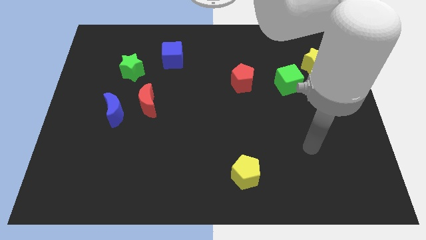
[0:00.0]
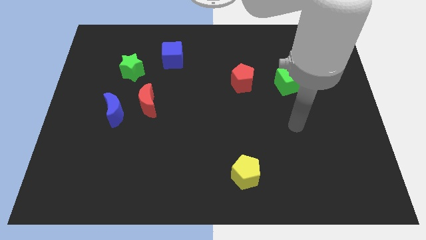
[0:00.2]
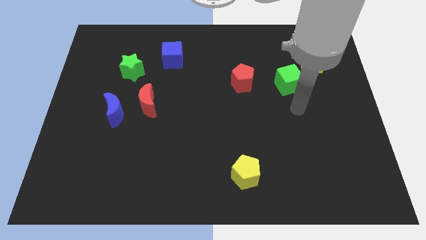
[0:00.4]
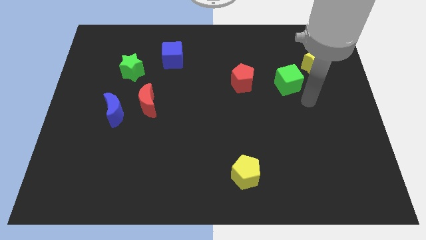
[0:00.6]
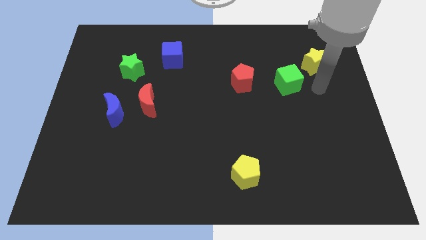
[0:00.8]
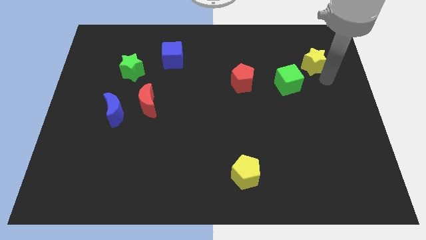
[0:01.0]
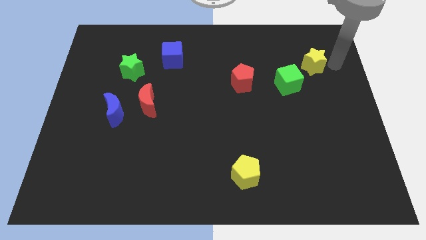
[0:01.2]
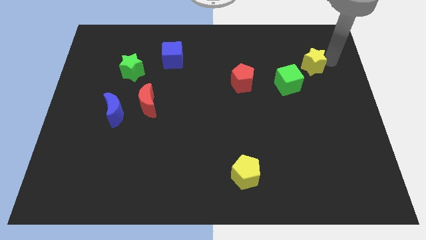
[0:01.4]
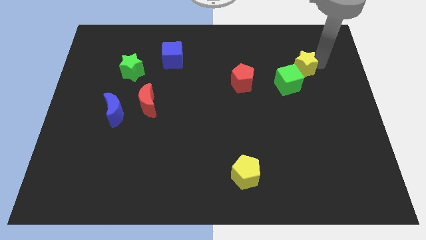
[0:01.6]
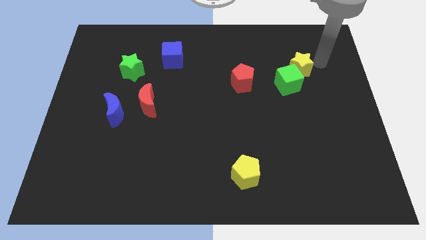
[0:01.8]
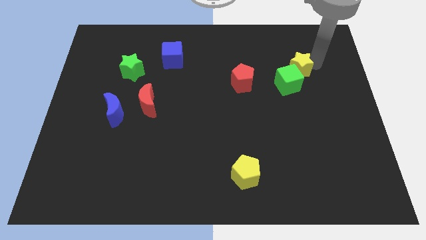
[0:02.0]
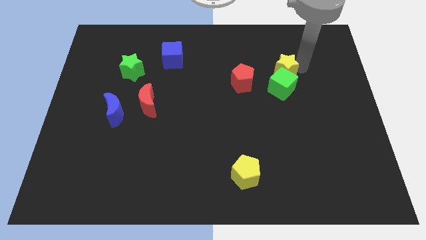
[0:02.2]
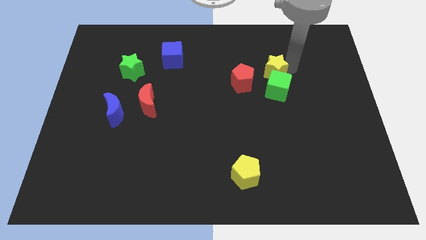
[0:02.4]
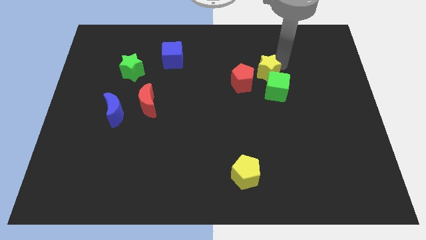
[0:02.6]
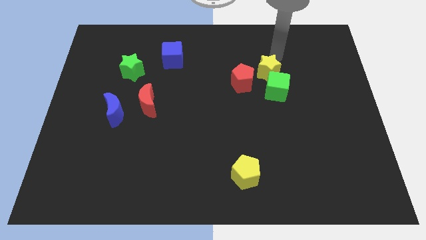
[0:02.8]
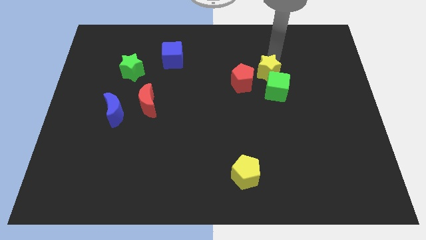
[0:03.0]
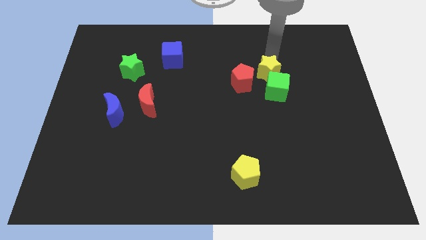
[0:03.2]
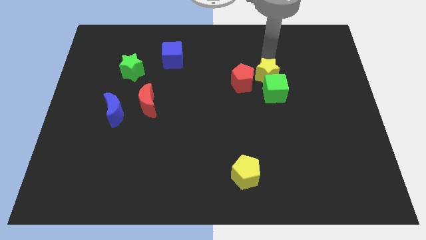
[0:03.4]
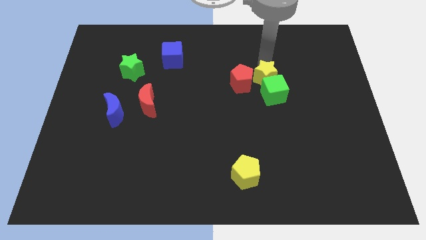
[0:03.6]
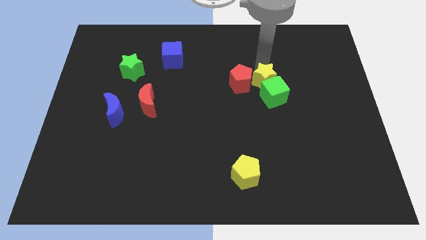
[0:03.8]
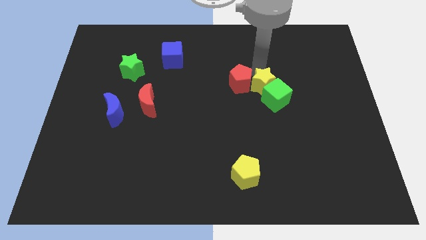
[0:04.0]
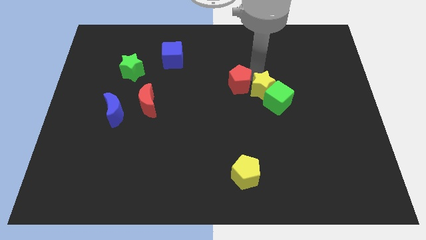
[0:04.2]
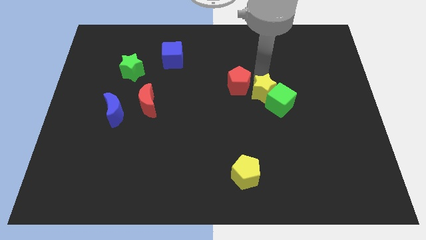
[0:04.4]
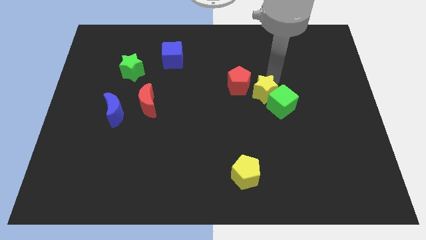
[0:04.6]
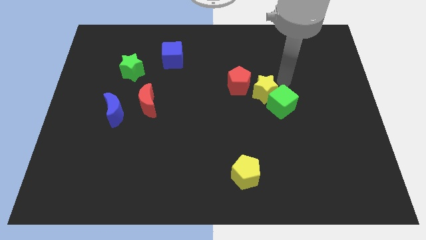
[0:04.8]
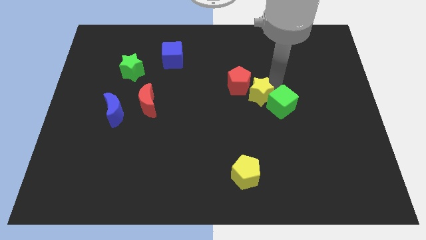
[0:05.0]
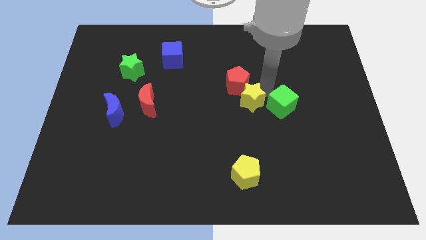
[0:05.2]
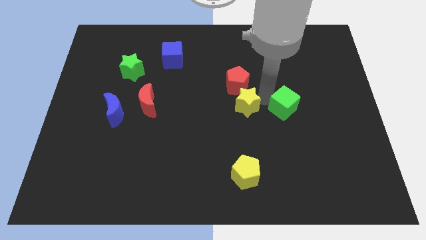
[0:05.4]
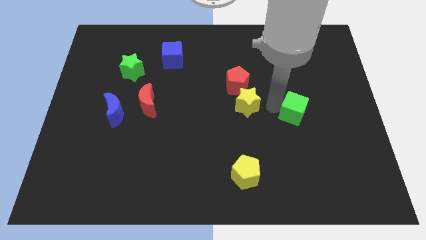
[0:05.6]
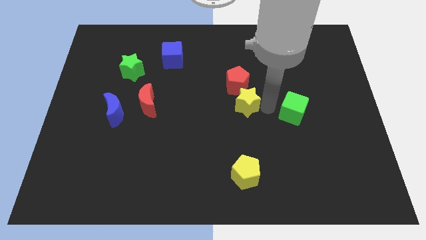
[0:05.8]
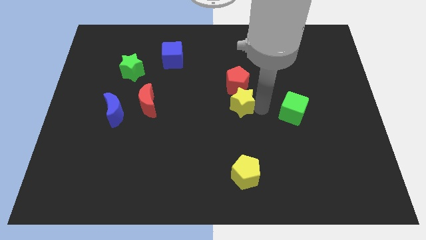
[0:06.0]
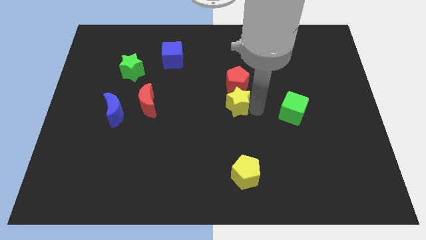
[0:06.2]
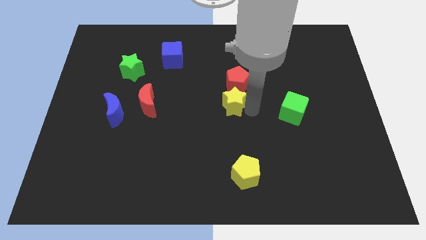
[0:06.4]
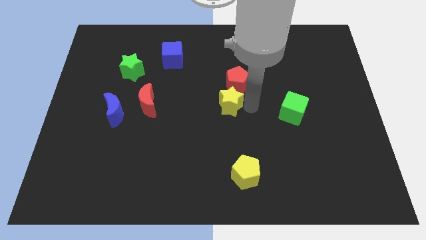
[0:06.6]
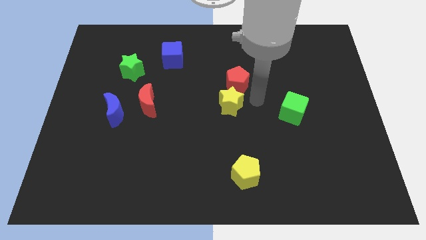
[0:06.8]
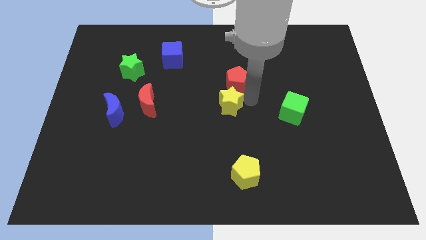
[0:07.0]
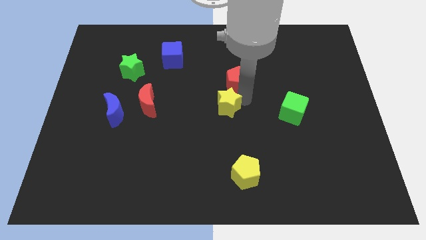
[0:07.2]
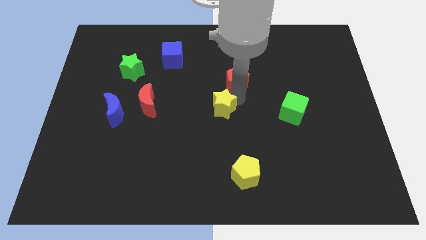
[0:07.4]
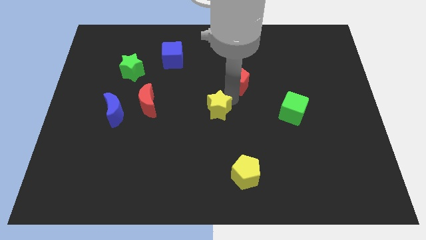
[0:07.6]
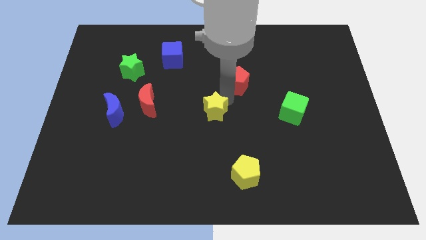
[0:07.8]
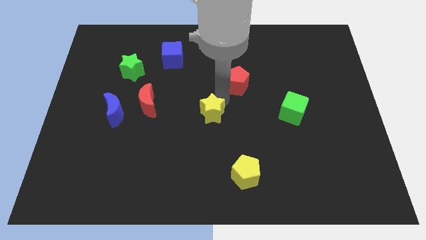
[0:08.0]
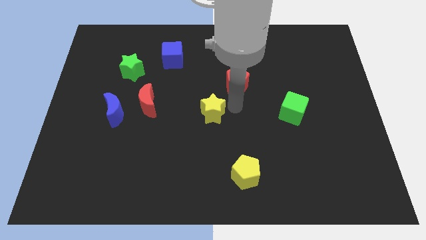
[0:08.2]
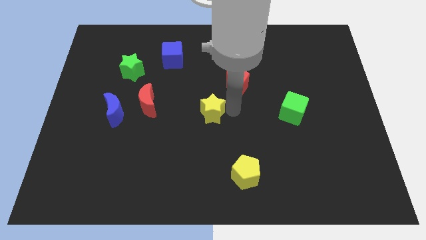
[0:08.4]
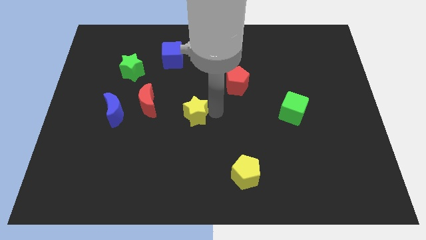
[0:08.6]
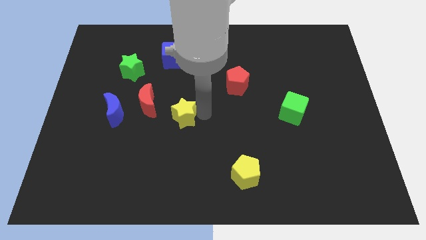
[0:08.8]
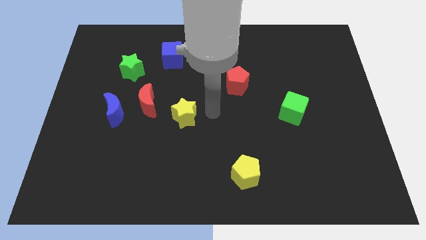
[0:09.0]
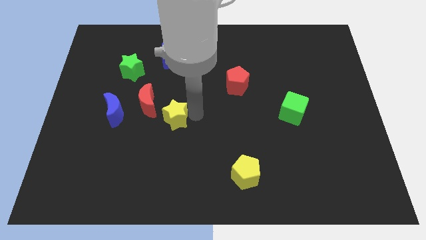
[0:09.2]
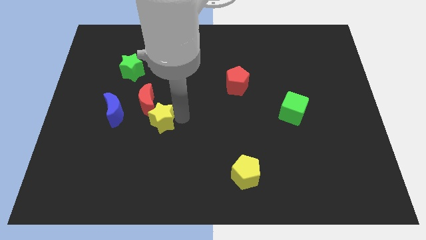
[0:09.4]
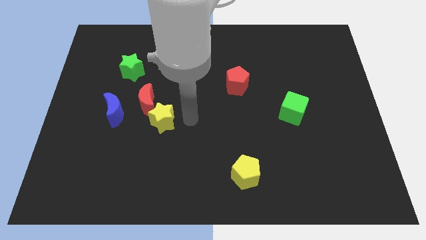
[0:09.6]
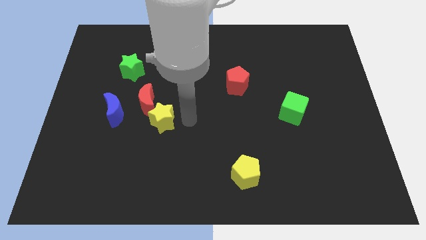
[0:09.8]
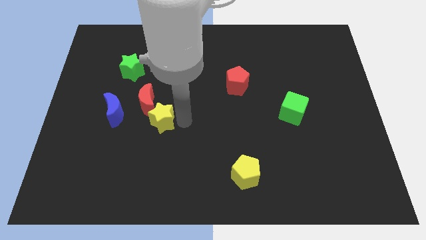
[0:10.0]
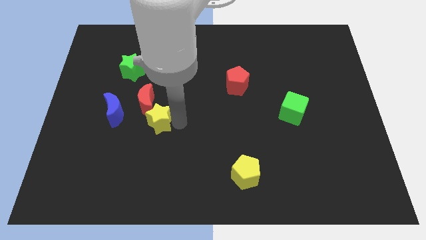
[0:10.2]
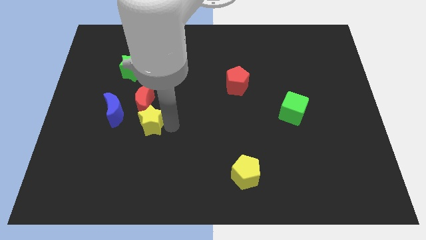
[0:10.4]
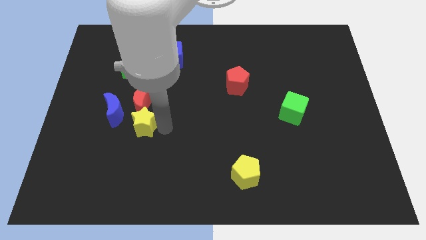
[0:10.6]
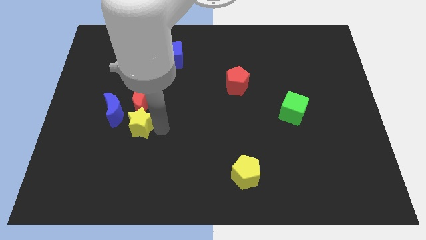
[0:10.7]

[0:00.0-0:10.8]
slide the yellow star to the bottom left of the red moon
